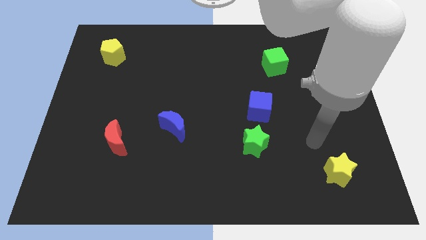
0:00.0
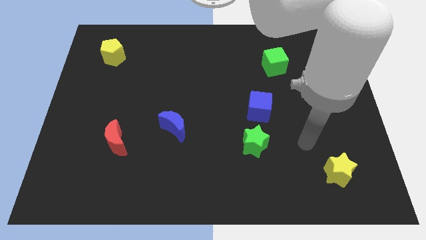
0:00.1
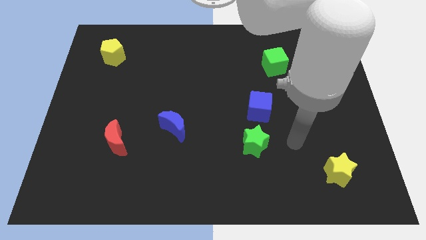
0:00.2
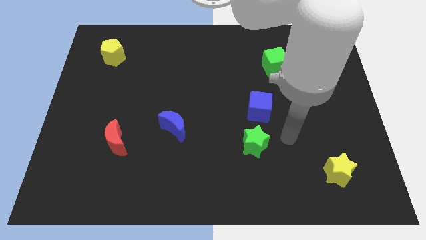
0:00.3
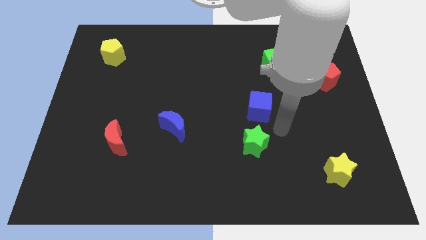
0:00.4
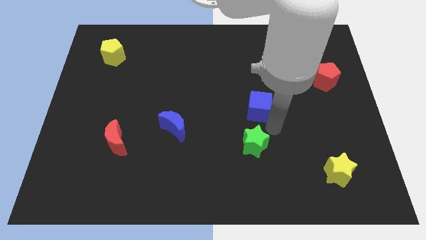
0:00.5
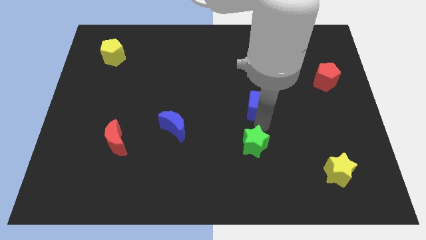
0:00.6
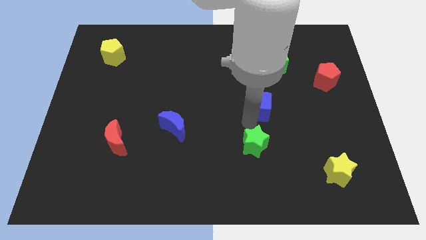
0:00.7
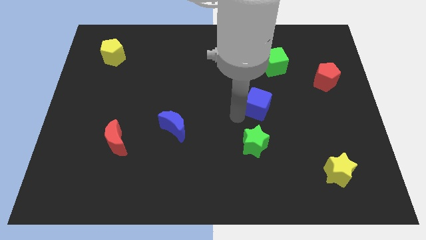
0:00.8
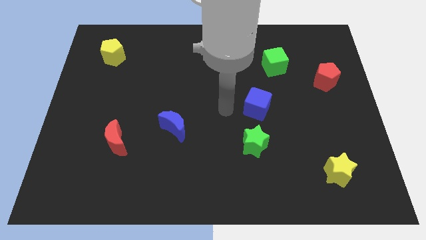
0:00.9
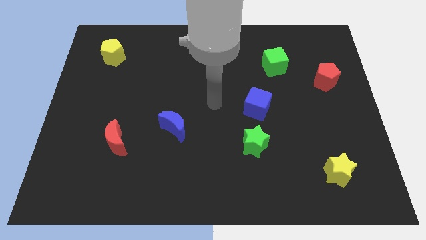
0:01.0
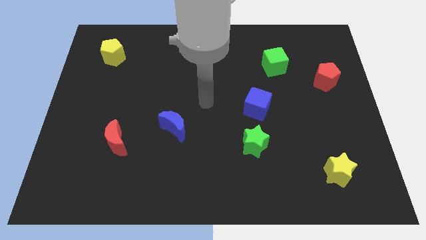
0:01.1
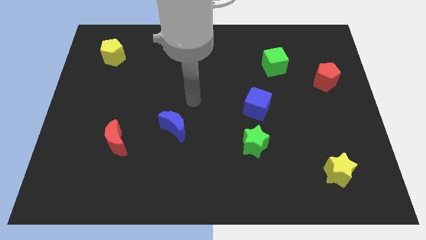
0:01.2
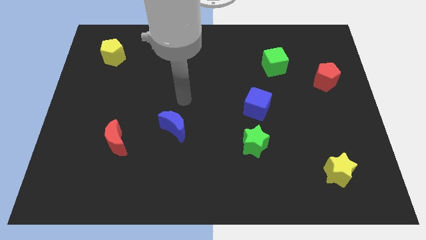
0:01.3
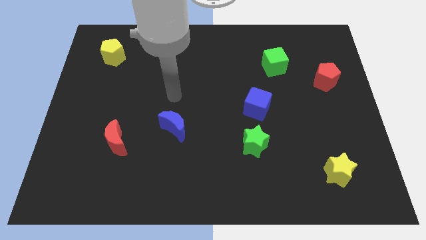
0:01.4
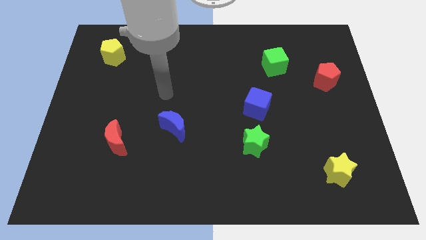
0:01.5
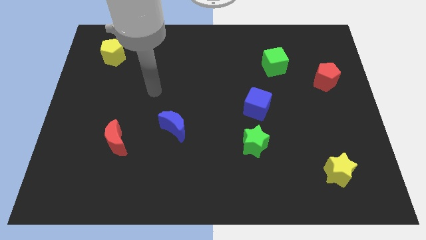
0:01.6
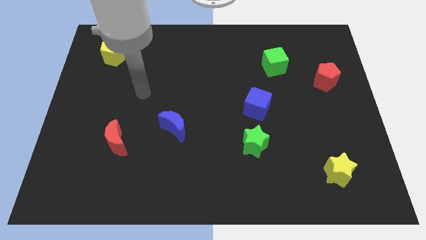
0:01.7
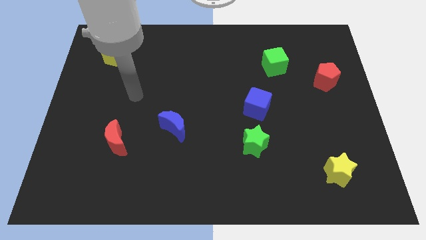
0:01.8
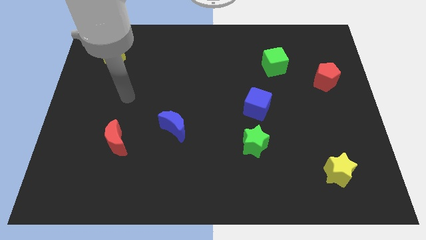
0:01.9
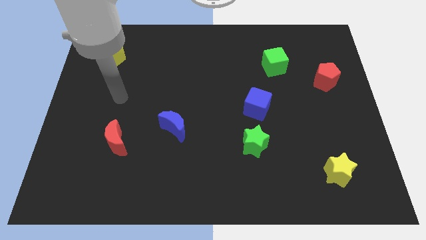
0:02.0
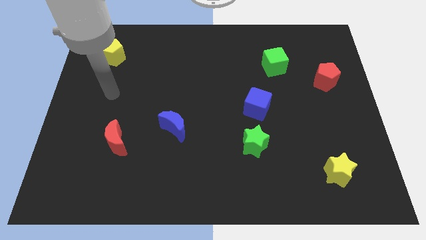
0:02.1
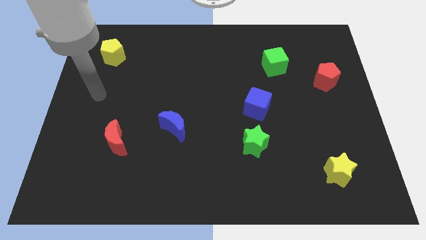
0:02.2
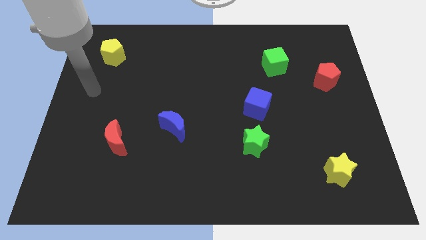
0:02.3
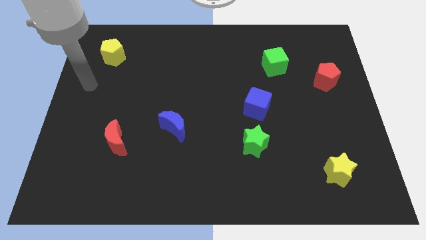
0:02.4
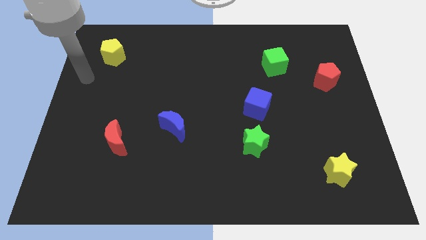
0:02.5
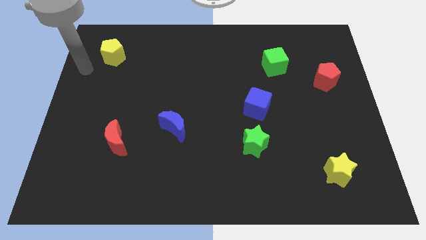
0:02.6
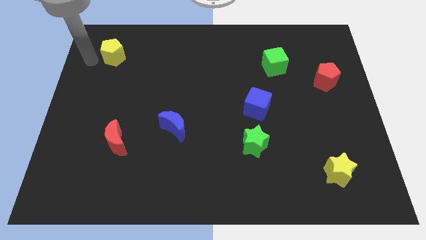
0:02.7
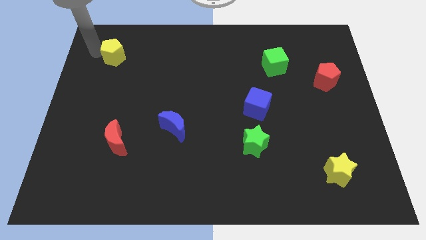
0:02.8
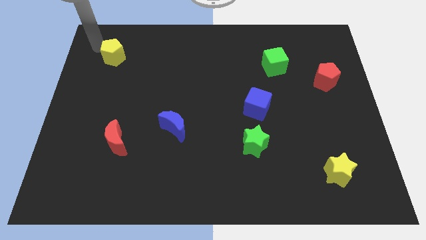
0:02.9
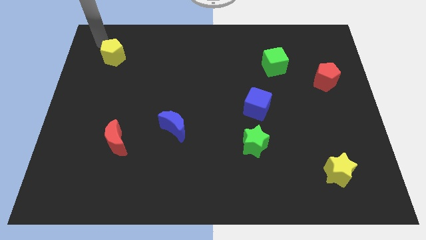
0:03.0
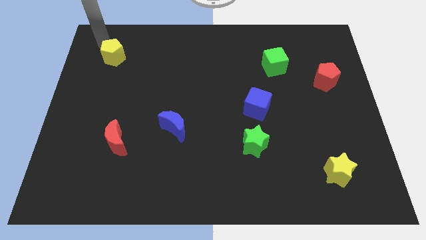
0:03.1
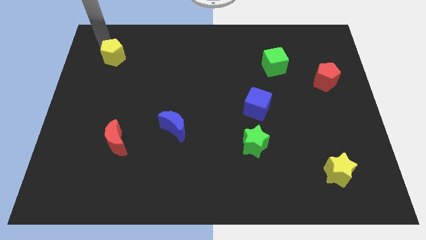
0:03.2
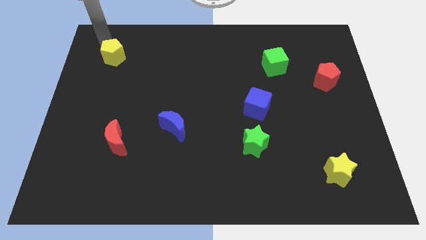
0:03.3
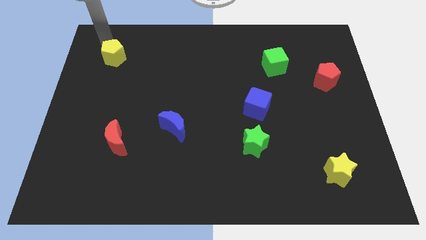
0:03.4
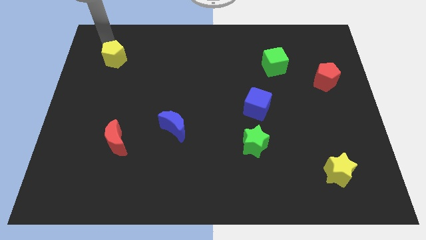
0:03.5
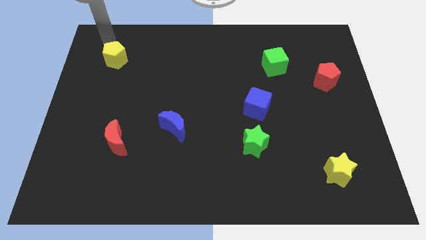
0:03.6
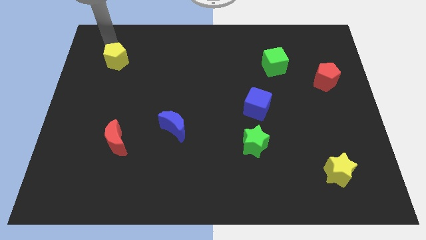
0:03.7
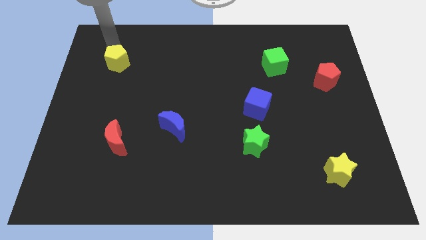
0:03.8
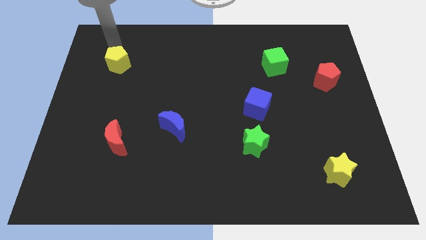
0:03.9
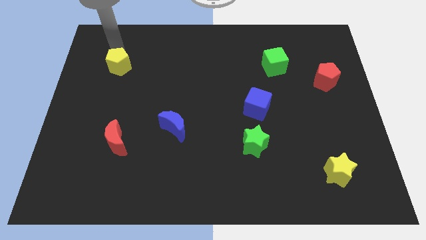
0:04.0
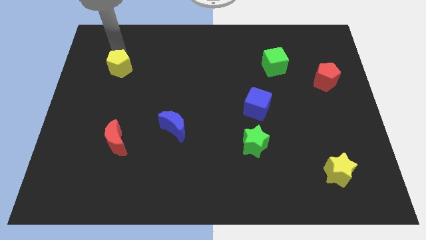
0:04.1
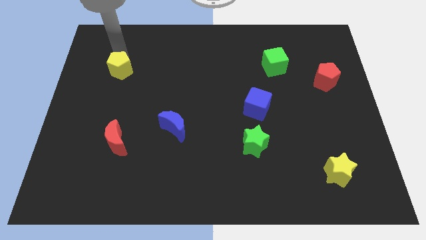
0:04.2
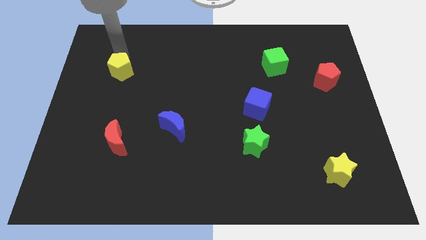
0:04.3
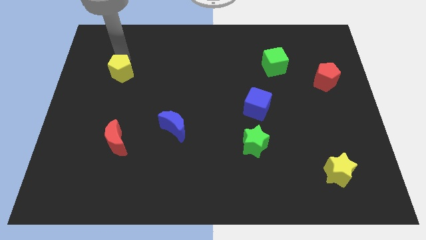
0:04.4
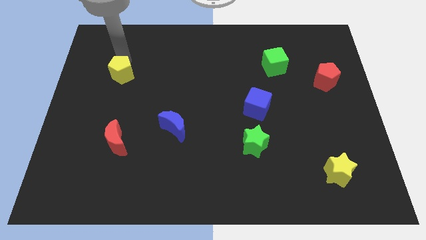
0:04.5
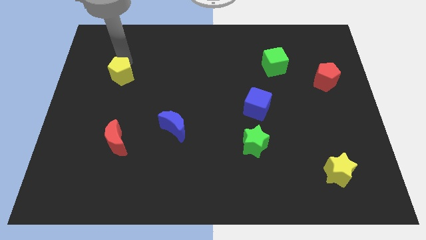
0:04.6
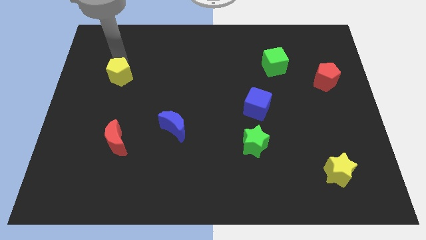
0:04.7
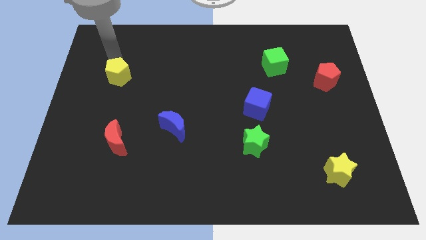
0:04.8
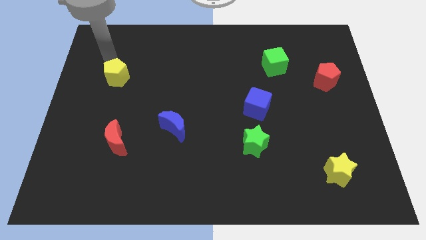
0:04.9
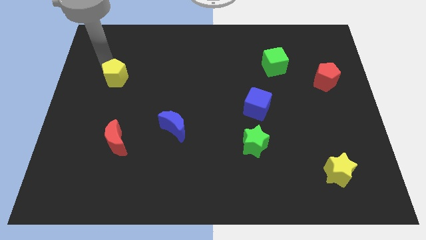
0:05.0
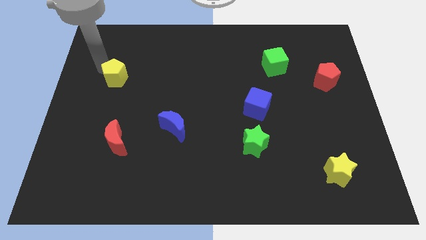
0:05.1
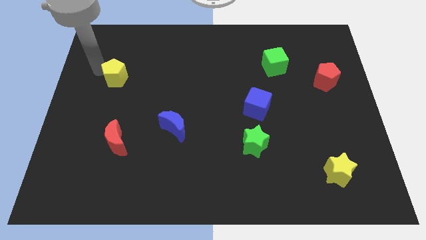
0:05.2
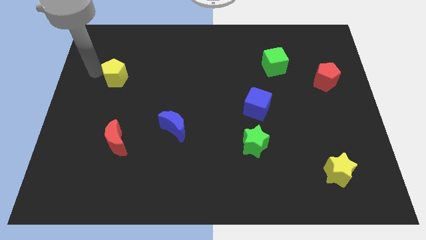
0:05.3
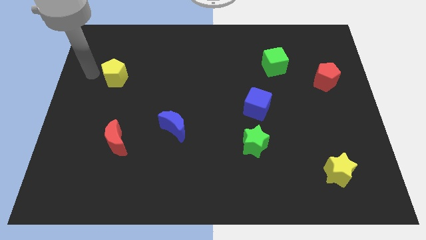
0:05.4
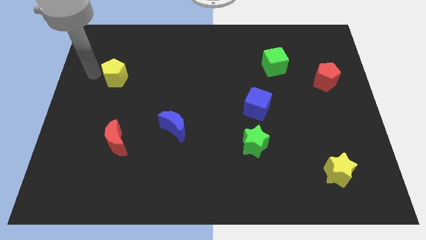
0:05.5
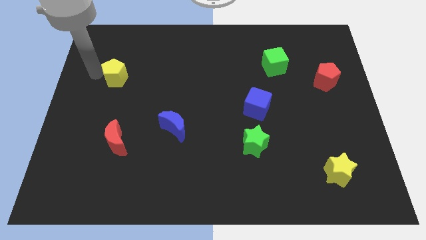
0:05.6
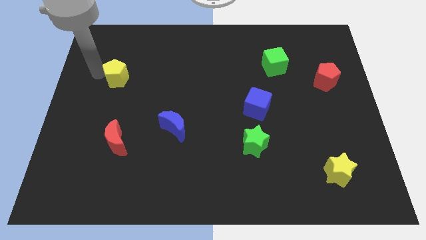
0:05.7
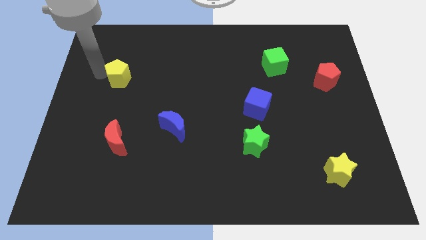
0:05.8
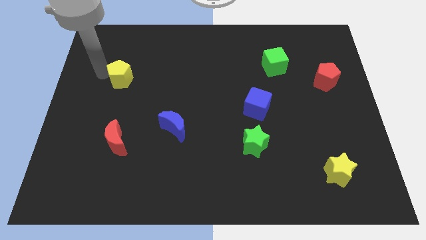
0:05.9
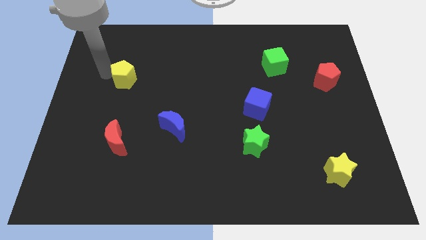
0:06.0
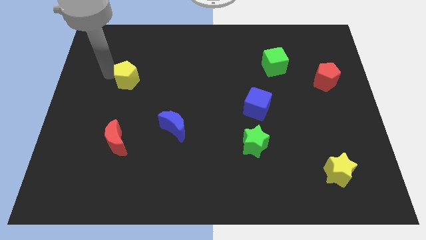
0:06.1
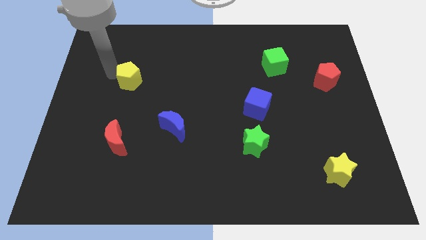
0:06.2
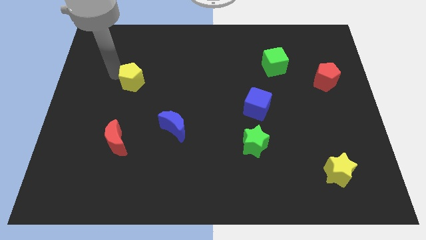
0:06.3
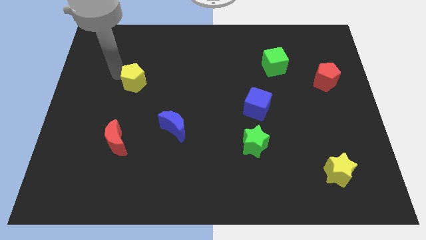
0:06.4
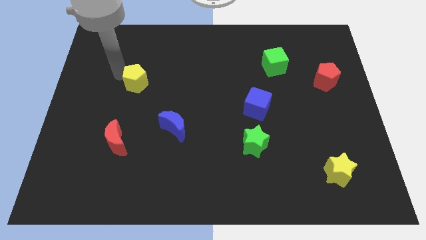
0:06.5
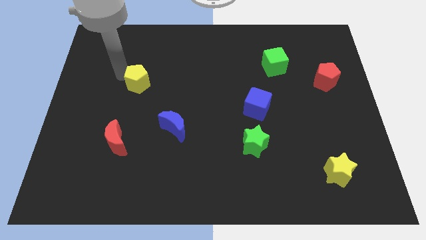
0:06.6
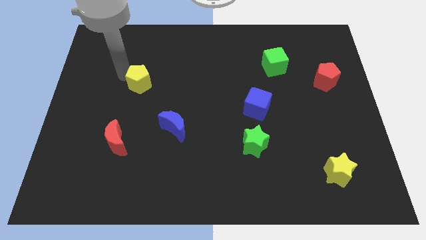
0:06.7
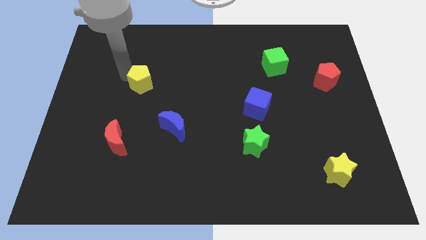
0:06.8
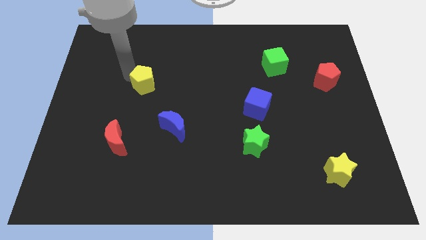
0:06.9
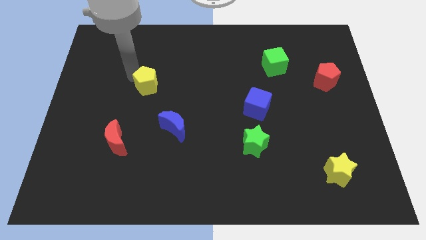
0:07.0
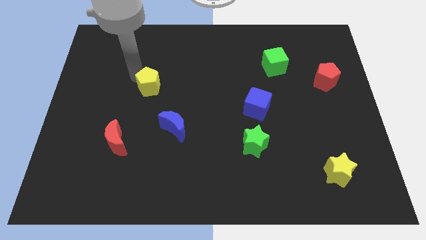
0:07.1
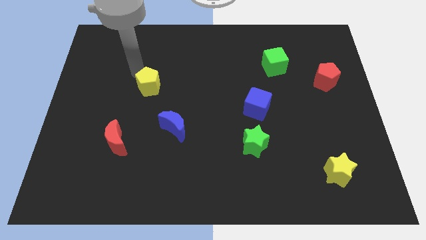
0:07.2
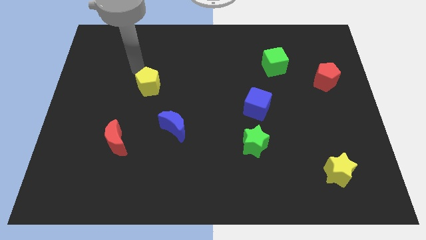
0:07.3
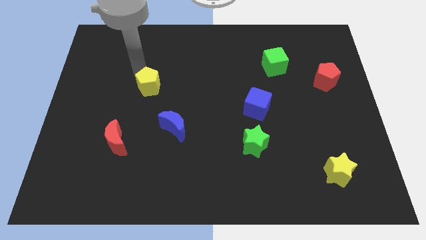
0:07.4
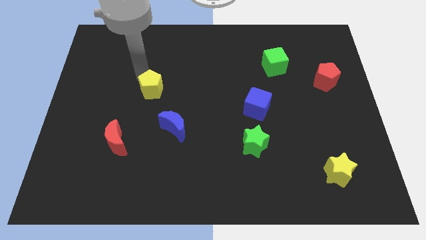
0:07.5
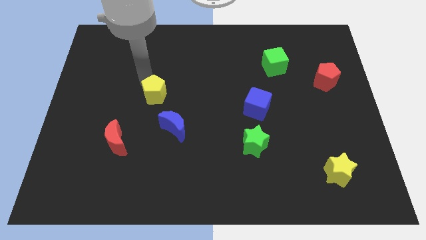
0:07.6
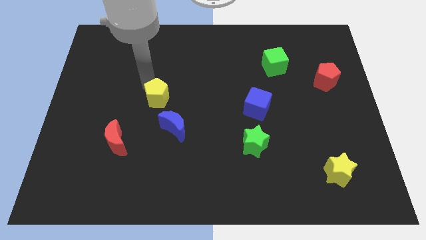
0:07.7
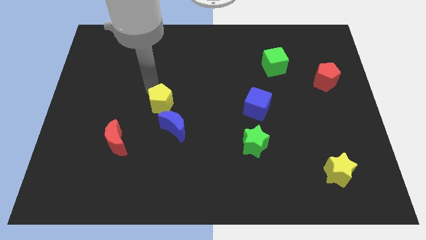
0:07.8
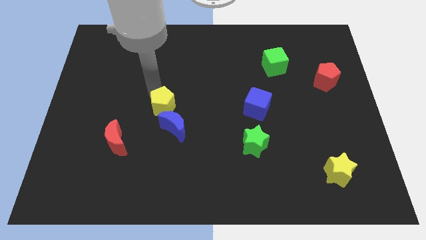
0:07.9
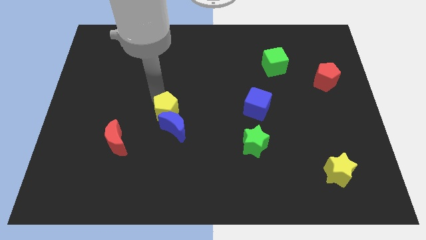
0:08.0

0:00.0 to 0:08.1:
slide the yellow pentagon close to the blue moon
